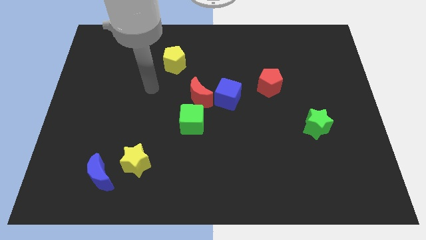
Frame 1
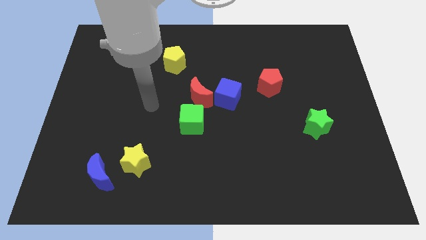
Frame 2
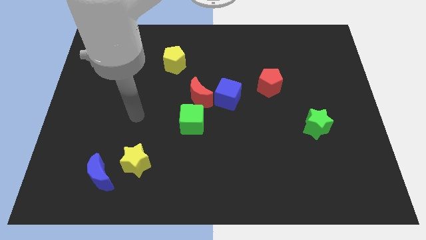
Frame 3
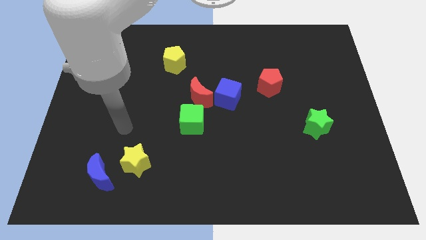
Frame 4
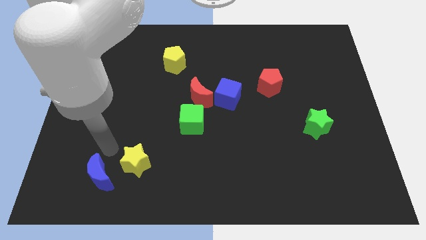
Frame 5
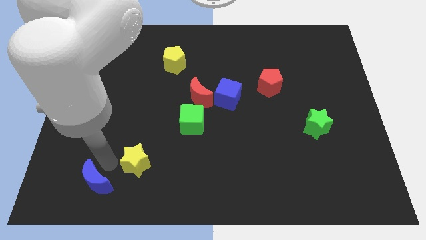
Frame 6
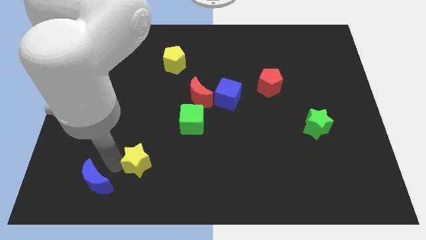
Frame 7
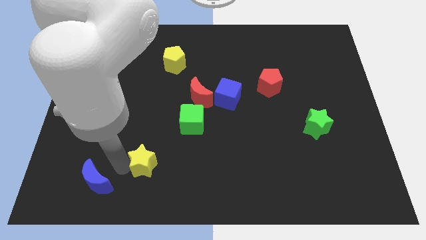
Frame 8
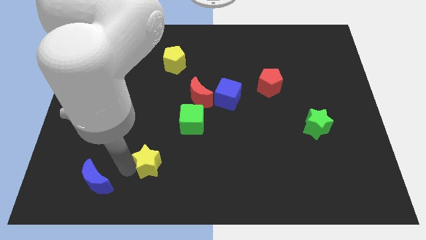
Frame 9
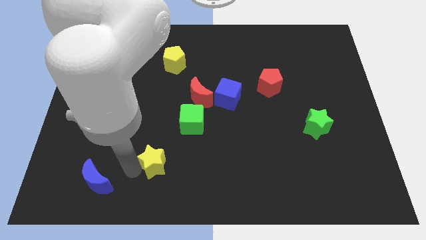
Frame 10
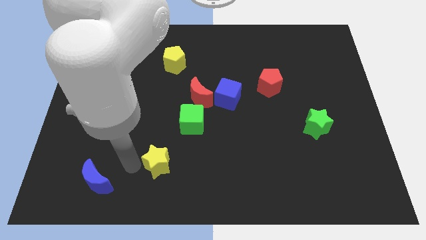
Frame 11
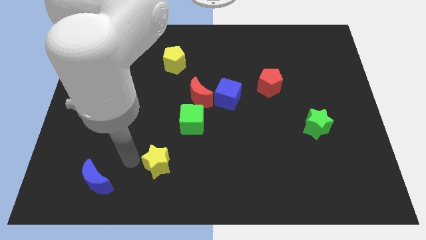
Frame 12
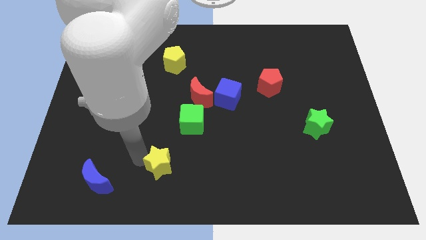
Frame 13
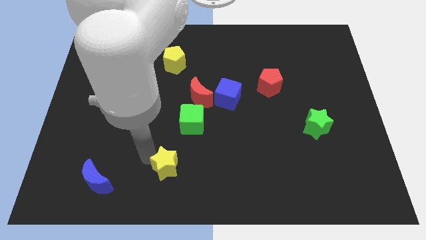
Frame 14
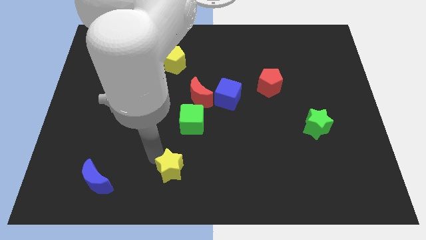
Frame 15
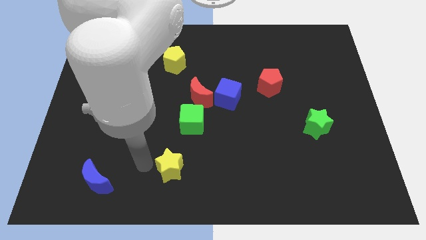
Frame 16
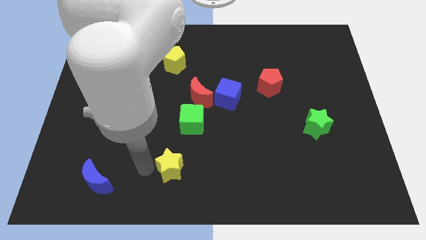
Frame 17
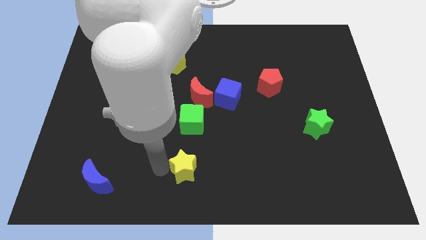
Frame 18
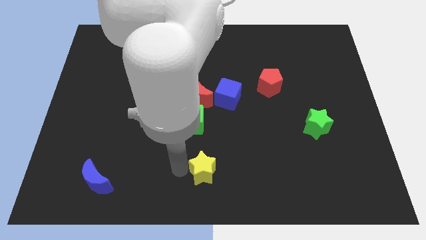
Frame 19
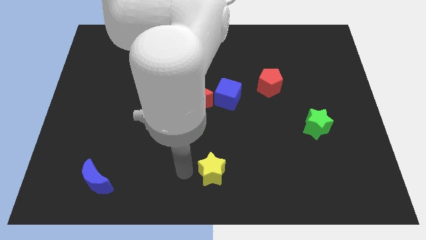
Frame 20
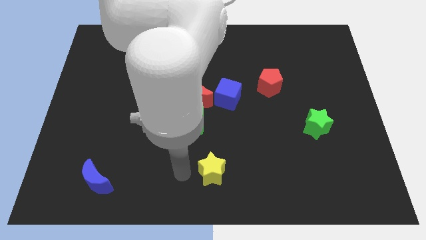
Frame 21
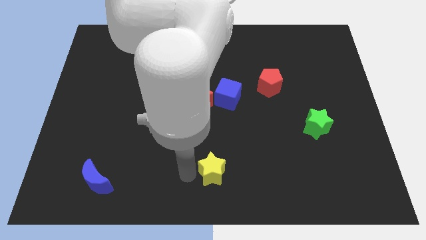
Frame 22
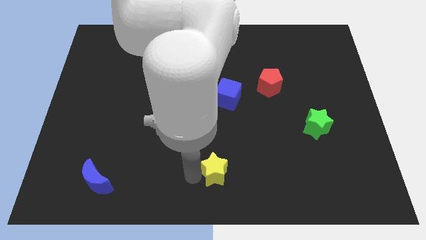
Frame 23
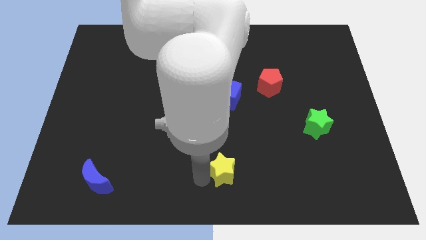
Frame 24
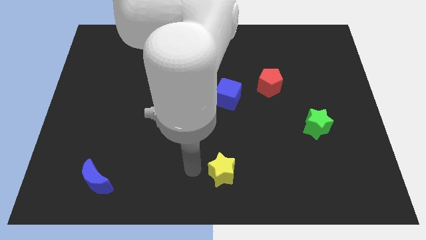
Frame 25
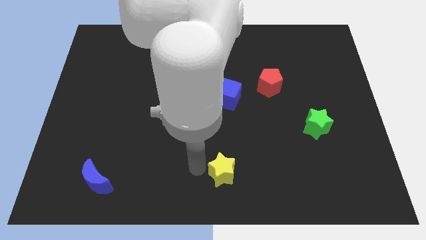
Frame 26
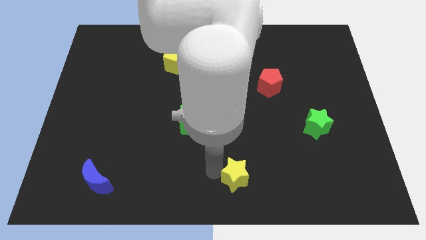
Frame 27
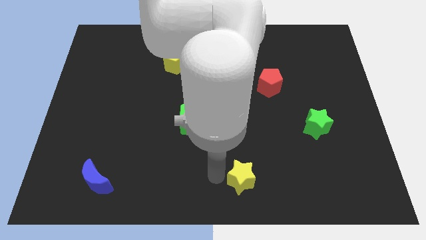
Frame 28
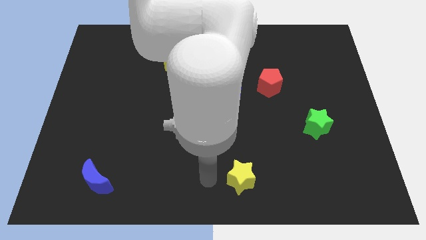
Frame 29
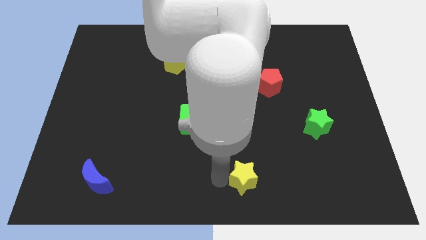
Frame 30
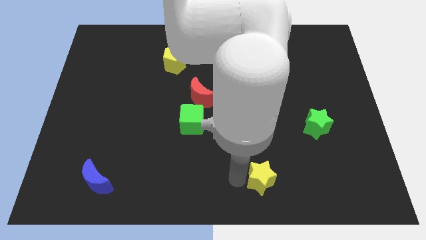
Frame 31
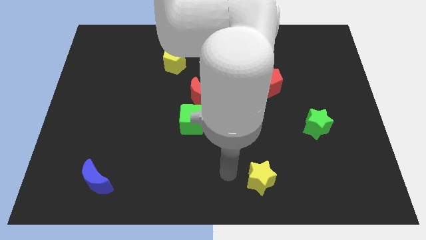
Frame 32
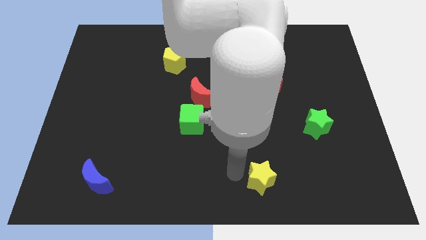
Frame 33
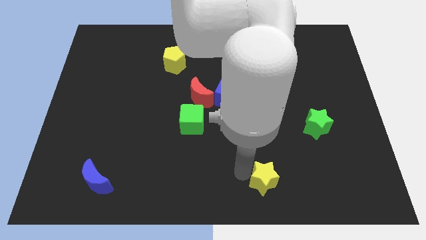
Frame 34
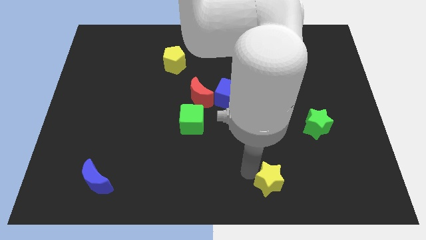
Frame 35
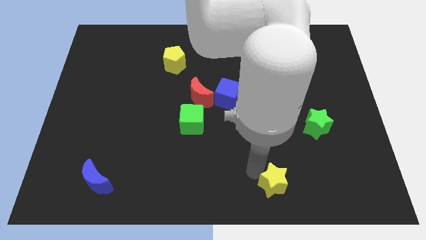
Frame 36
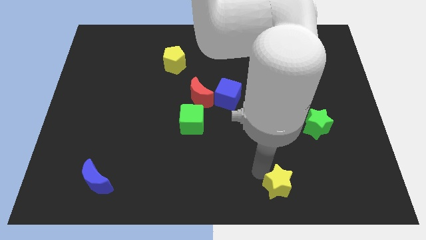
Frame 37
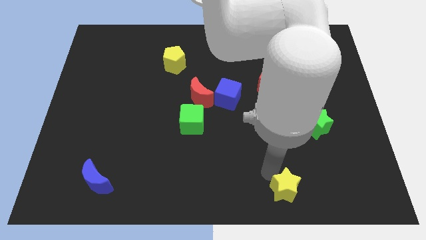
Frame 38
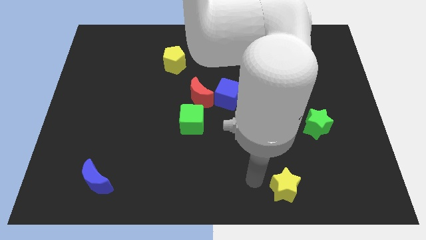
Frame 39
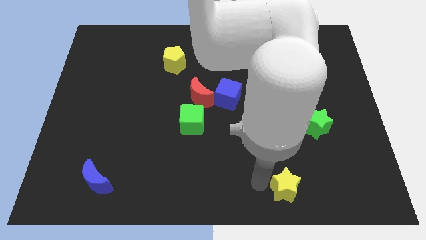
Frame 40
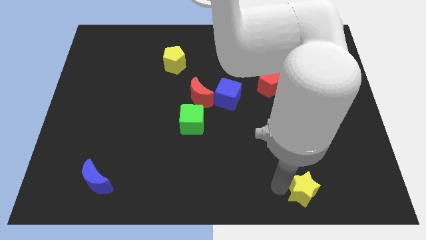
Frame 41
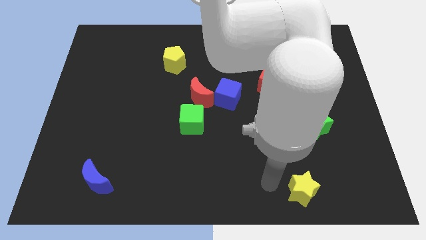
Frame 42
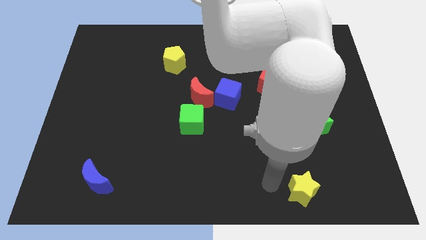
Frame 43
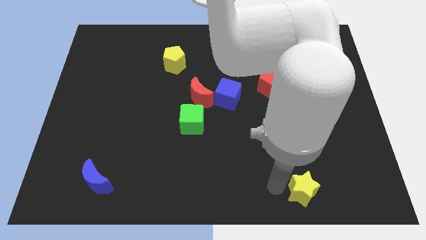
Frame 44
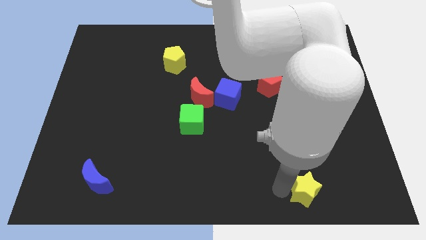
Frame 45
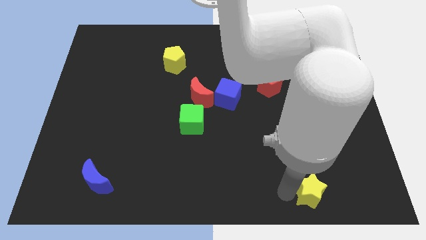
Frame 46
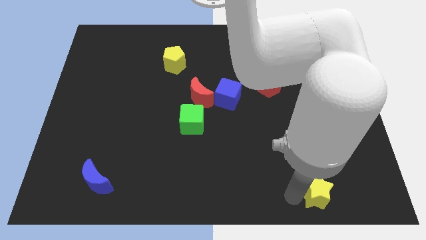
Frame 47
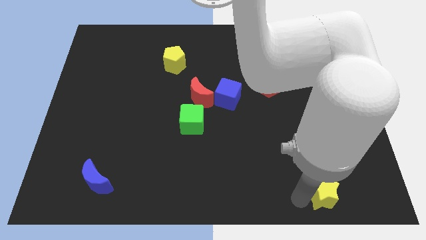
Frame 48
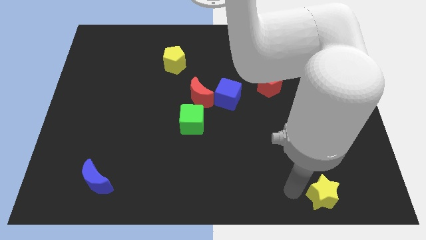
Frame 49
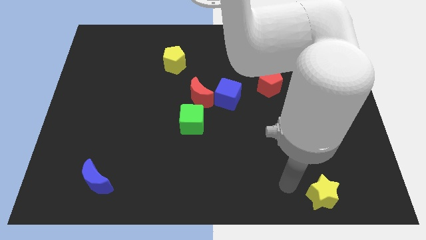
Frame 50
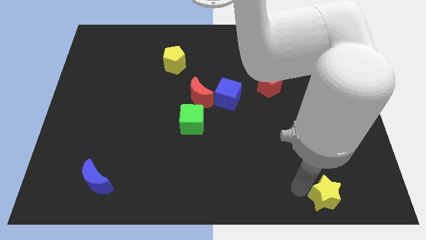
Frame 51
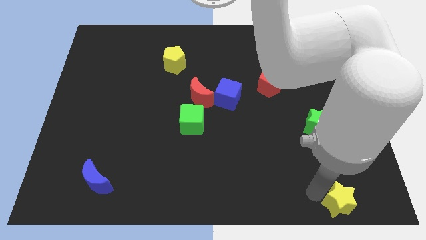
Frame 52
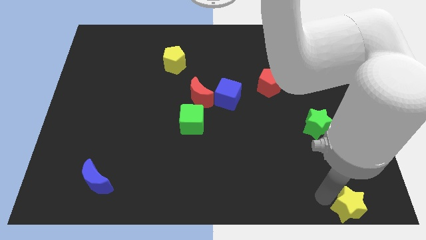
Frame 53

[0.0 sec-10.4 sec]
slide the yellow star to the bottom right of the board

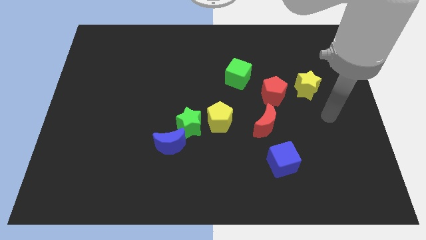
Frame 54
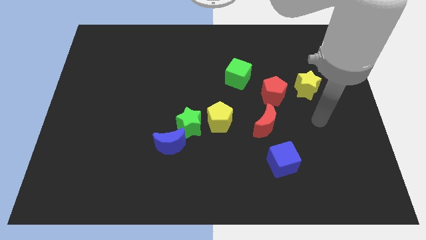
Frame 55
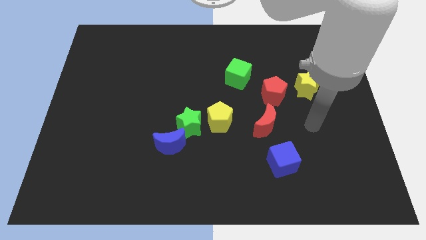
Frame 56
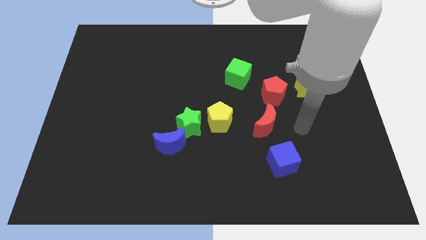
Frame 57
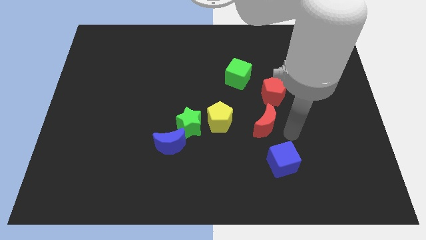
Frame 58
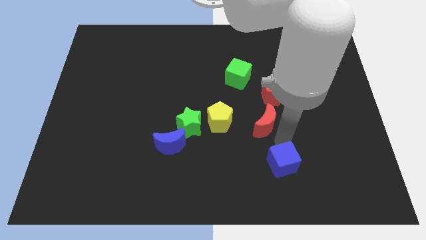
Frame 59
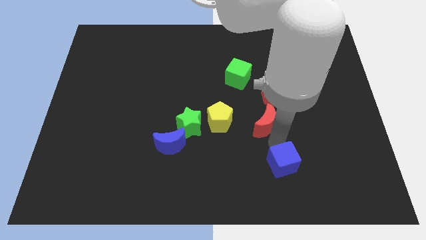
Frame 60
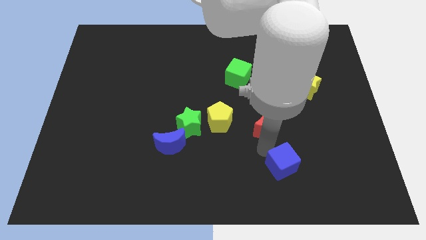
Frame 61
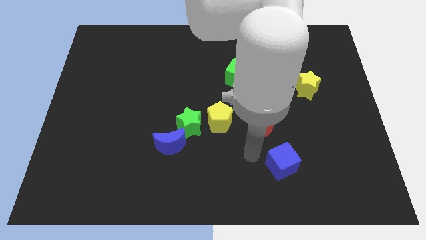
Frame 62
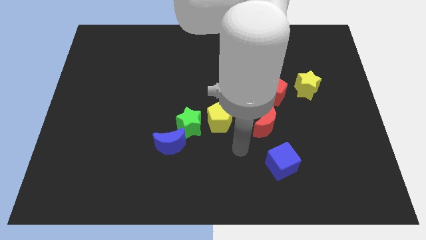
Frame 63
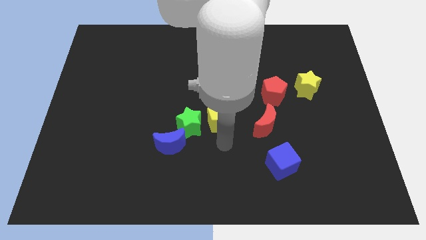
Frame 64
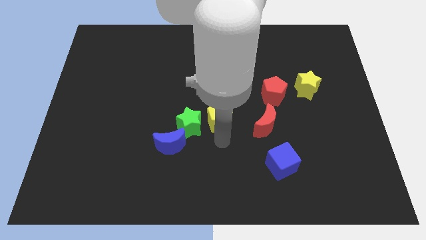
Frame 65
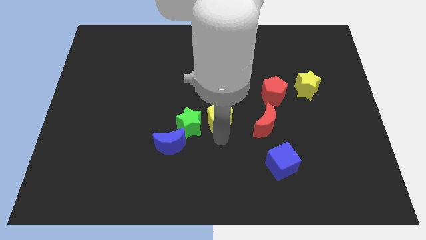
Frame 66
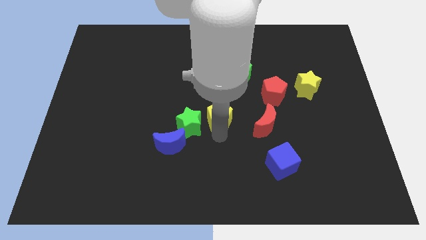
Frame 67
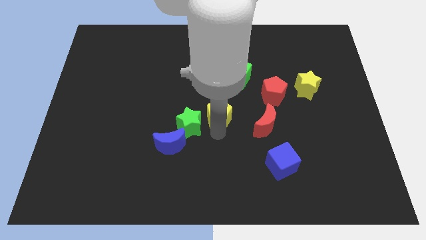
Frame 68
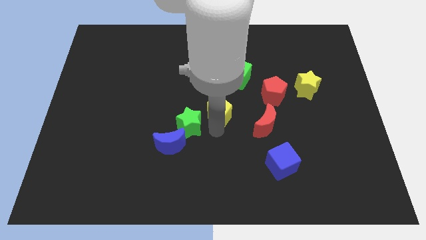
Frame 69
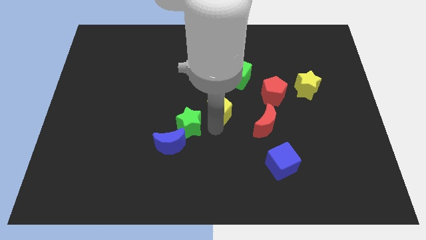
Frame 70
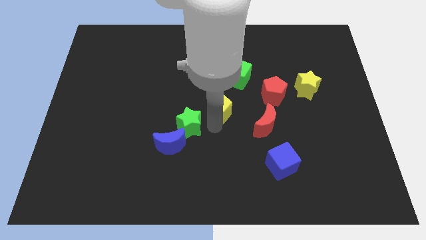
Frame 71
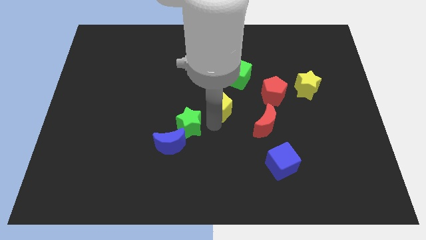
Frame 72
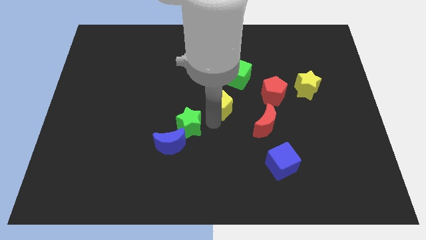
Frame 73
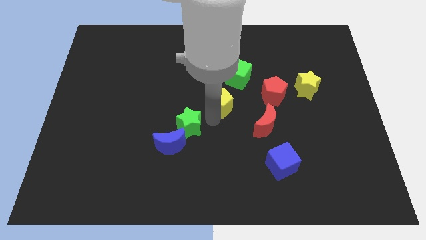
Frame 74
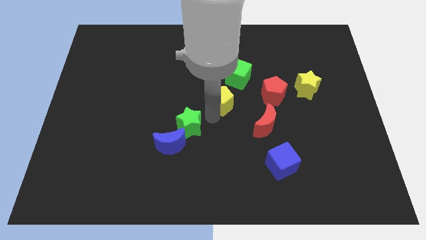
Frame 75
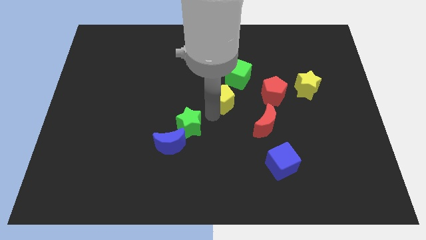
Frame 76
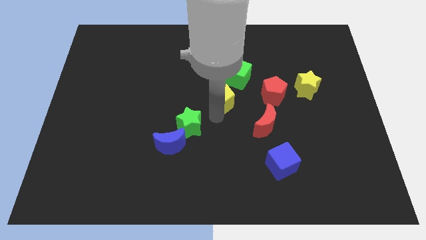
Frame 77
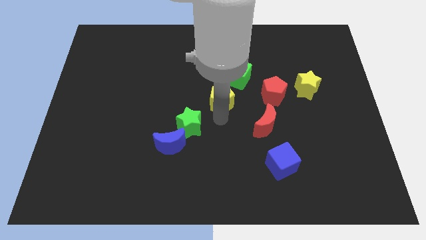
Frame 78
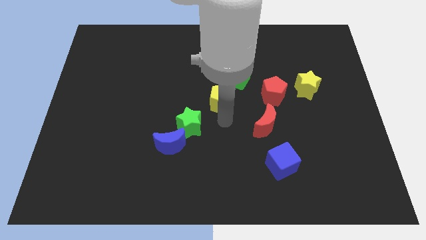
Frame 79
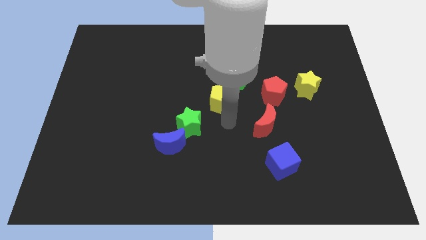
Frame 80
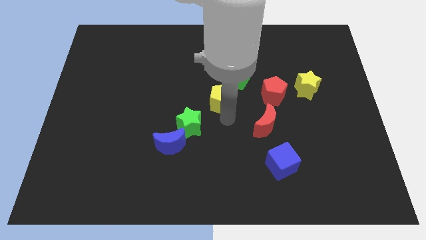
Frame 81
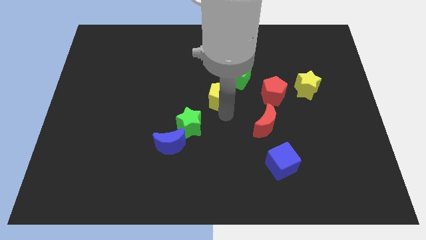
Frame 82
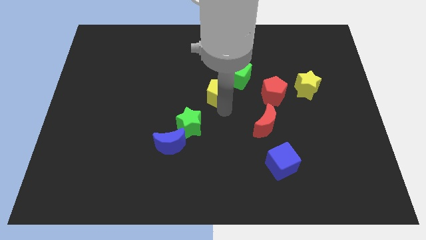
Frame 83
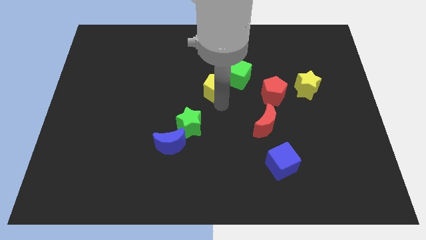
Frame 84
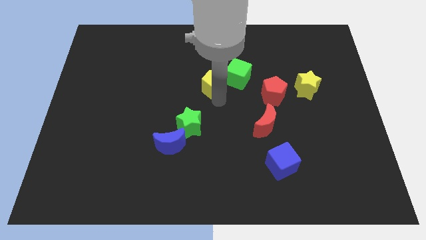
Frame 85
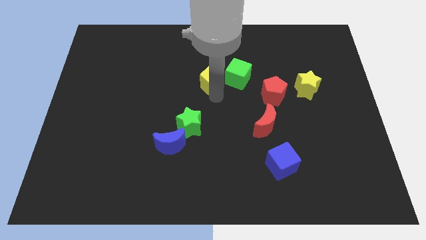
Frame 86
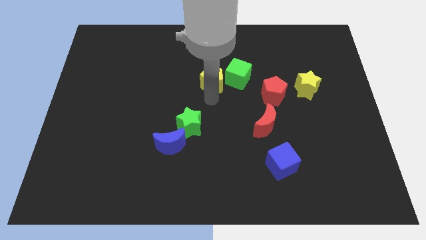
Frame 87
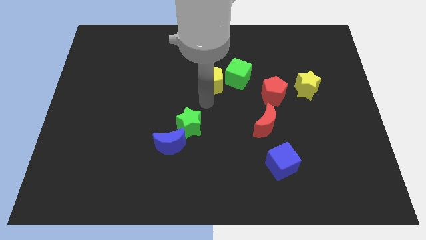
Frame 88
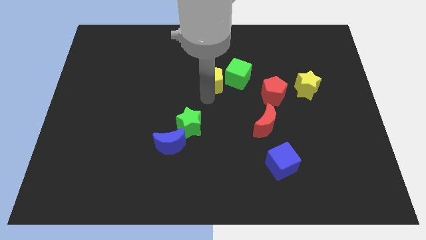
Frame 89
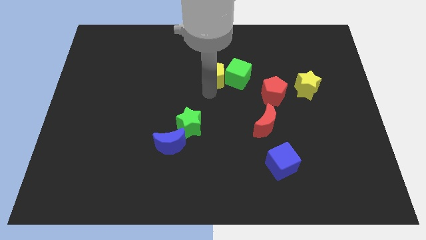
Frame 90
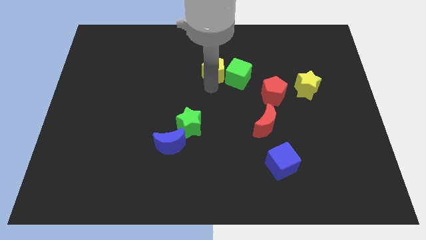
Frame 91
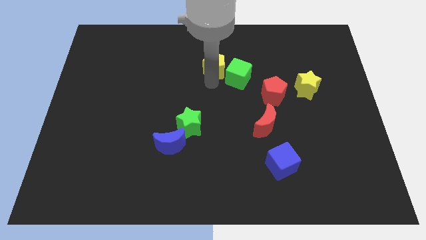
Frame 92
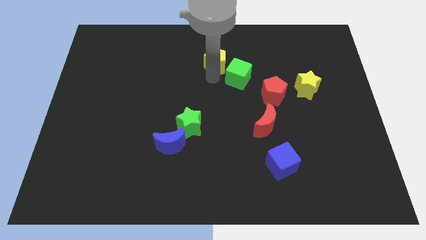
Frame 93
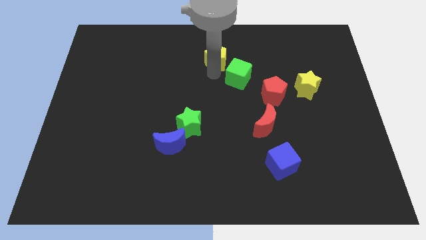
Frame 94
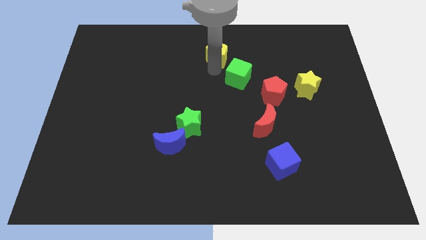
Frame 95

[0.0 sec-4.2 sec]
push the yellow pentagon to the towards your base
